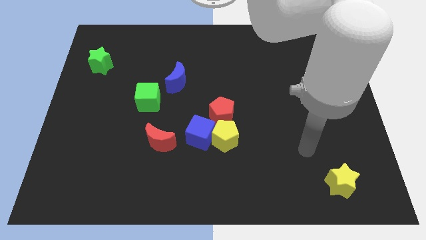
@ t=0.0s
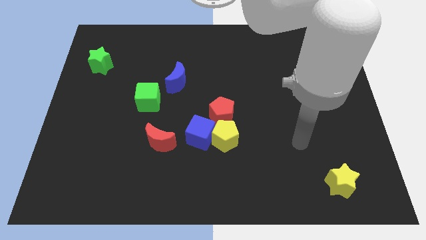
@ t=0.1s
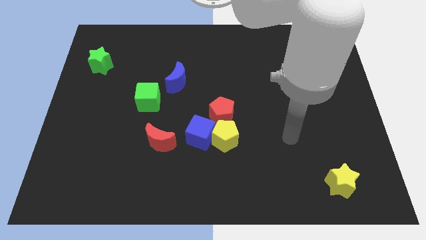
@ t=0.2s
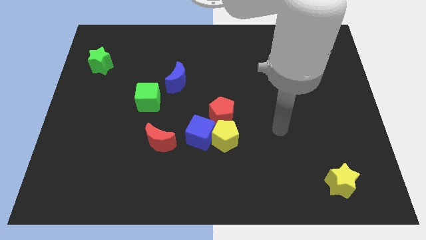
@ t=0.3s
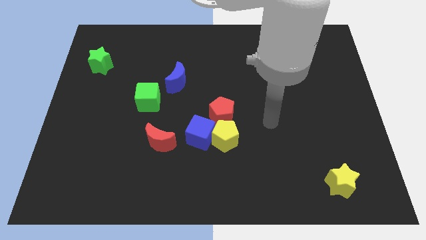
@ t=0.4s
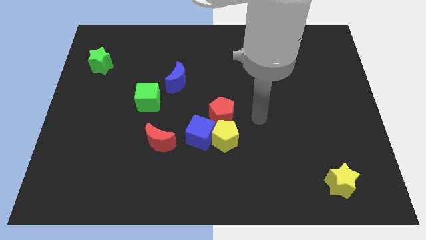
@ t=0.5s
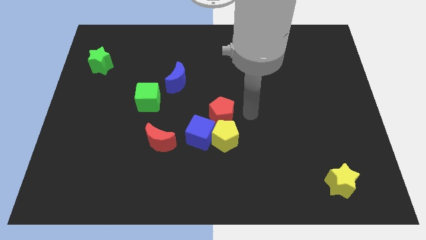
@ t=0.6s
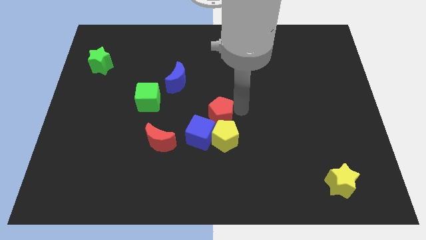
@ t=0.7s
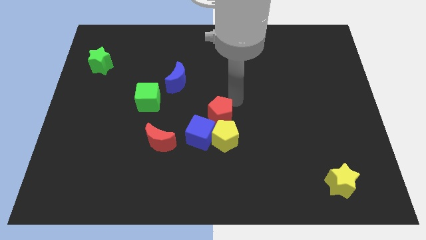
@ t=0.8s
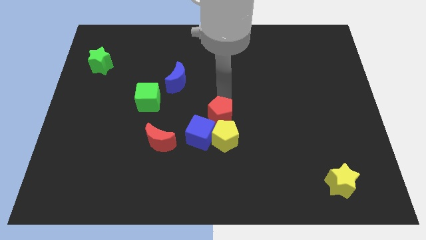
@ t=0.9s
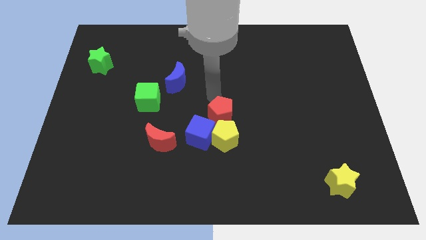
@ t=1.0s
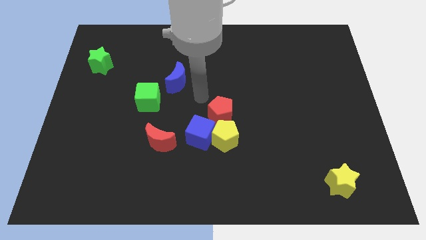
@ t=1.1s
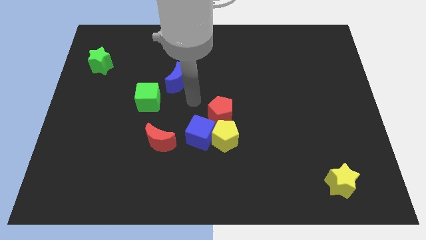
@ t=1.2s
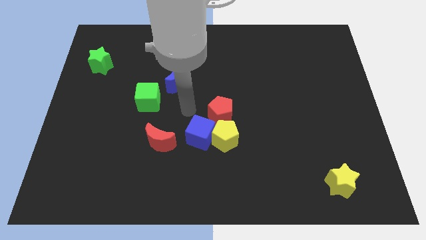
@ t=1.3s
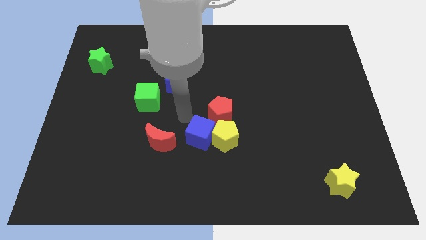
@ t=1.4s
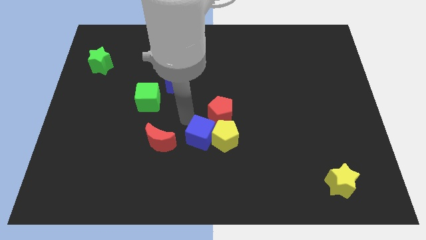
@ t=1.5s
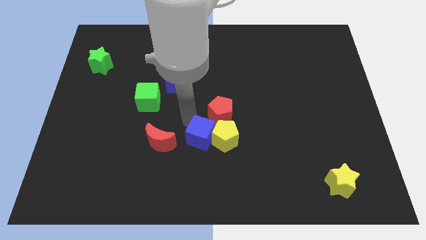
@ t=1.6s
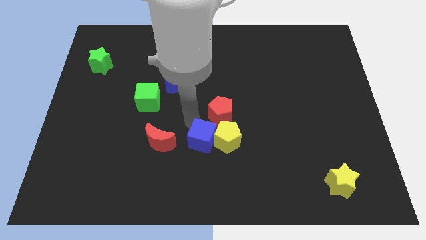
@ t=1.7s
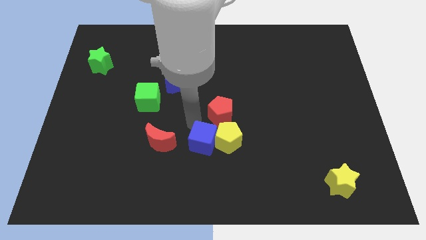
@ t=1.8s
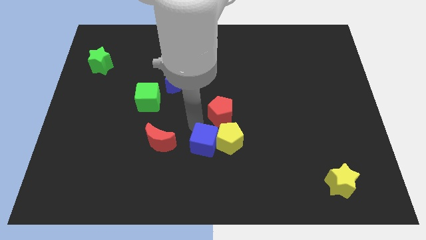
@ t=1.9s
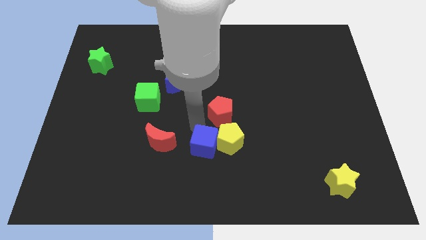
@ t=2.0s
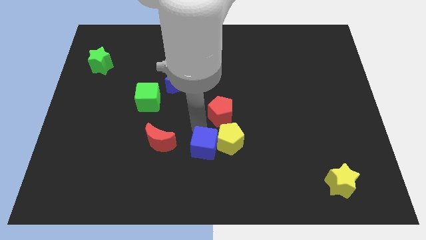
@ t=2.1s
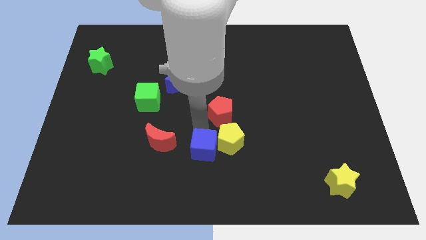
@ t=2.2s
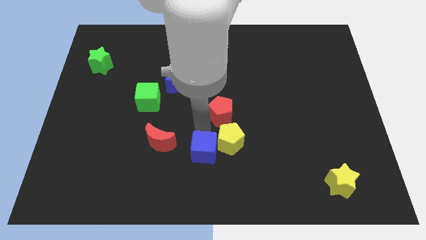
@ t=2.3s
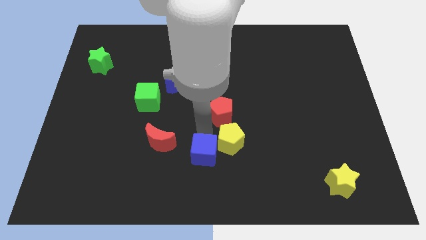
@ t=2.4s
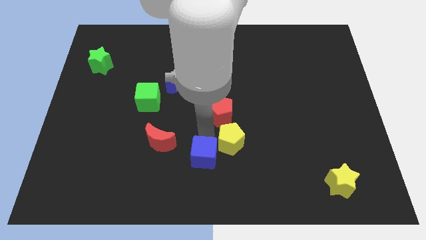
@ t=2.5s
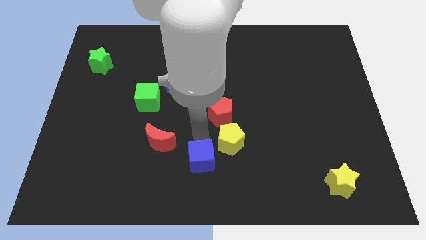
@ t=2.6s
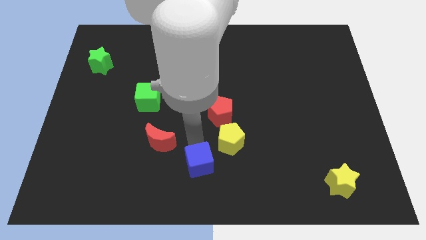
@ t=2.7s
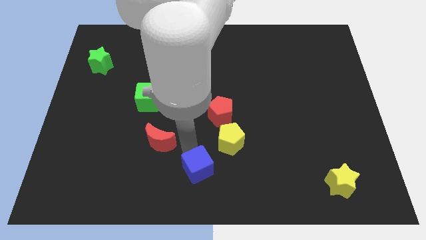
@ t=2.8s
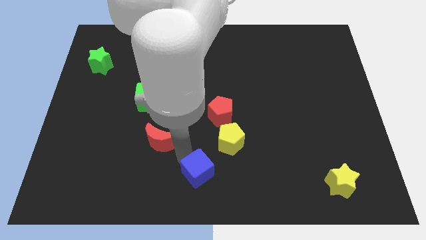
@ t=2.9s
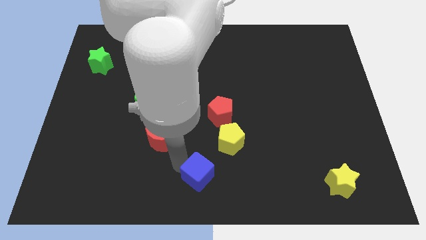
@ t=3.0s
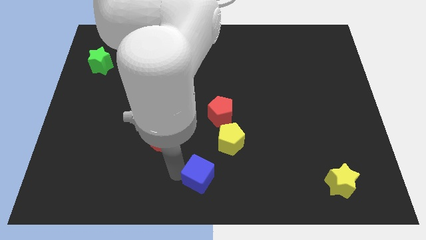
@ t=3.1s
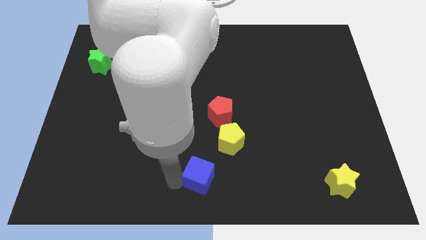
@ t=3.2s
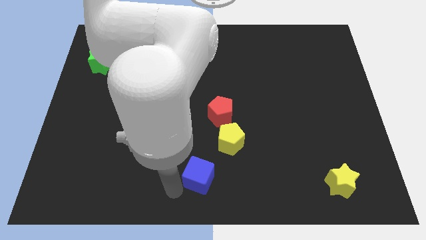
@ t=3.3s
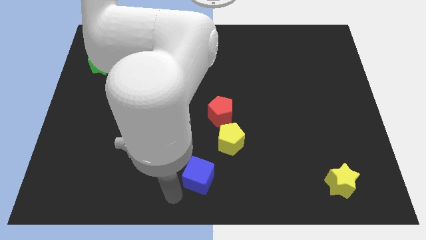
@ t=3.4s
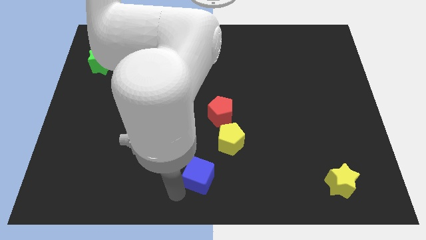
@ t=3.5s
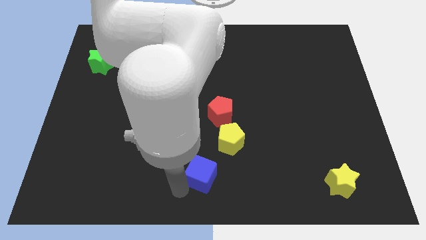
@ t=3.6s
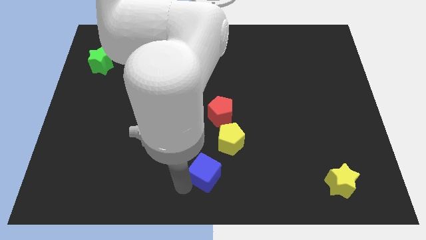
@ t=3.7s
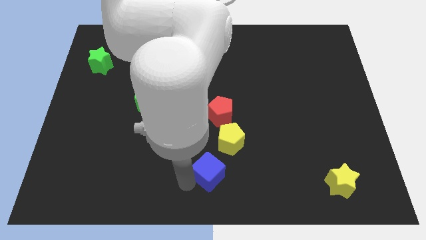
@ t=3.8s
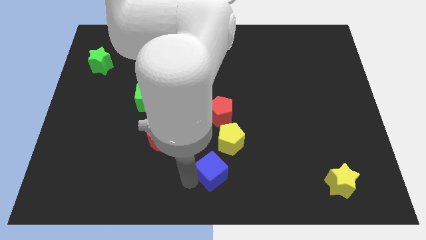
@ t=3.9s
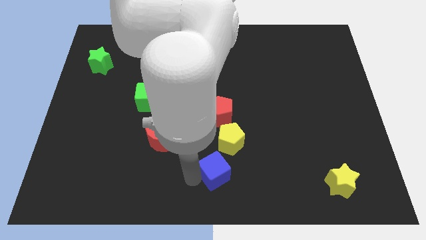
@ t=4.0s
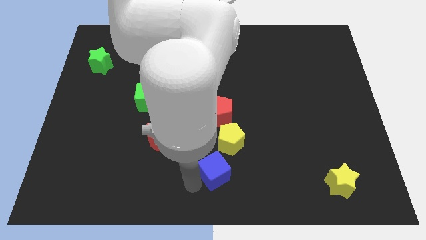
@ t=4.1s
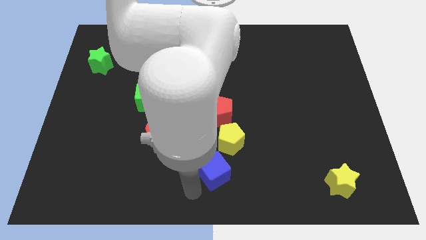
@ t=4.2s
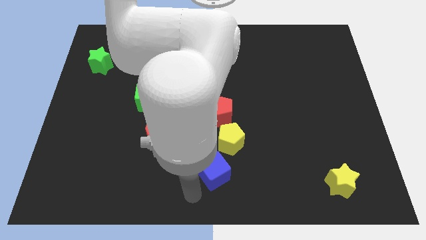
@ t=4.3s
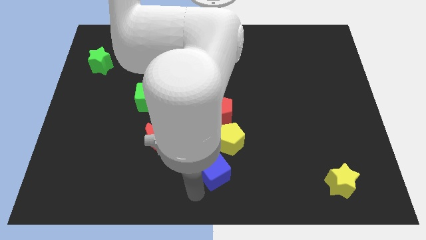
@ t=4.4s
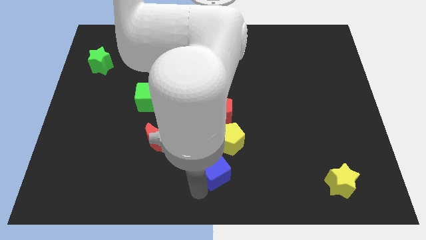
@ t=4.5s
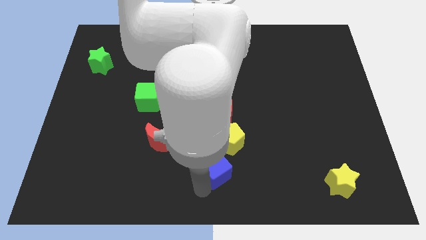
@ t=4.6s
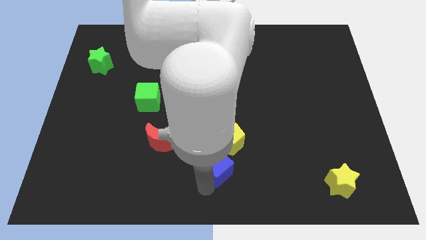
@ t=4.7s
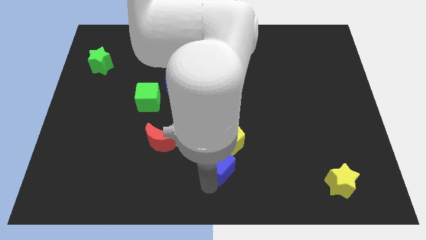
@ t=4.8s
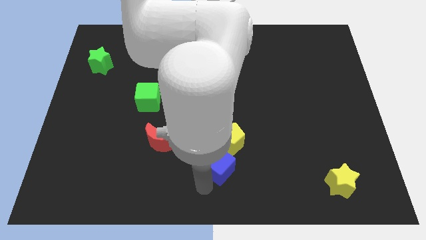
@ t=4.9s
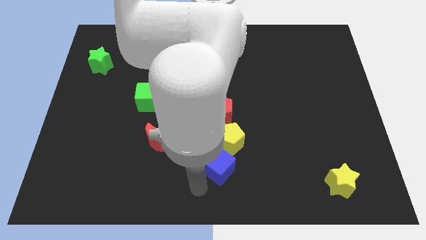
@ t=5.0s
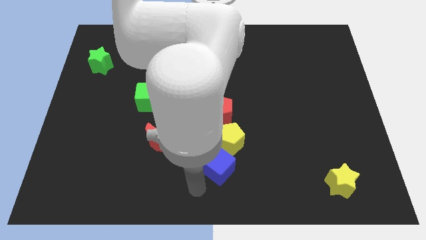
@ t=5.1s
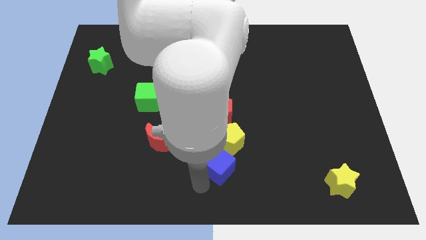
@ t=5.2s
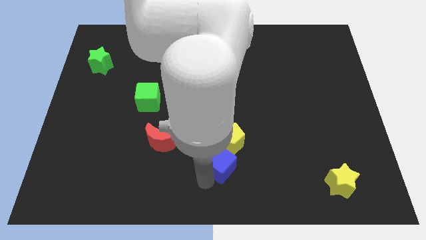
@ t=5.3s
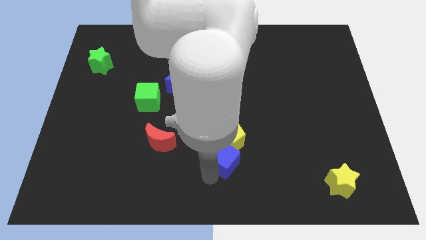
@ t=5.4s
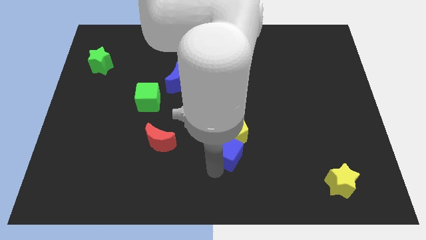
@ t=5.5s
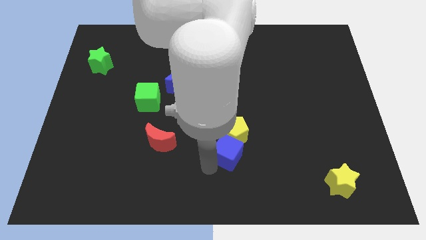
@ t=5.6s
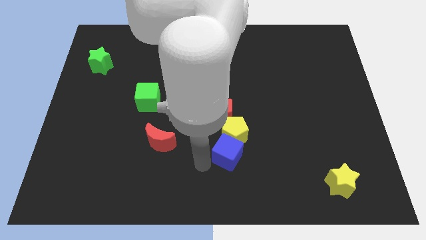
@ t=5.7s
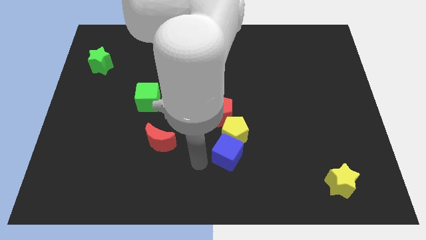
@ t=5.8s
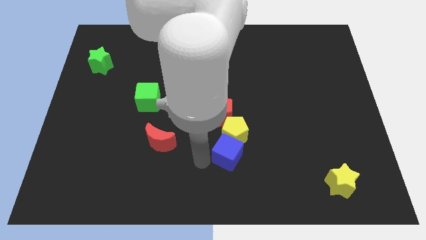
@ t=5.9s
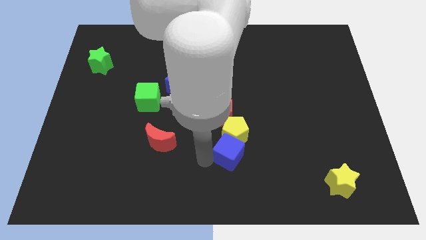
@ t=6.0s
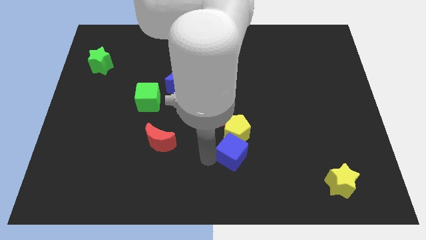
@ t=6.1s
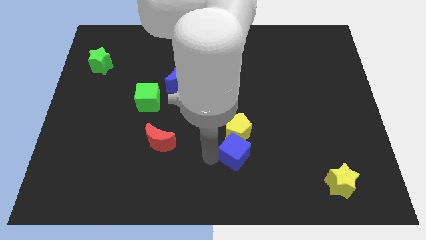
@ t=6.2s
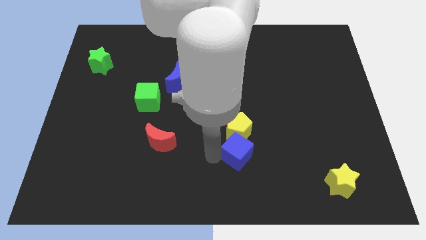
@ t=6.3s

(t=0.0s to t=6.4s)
move the blue cube somewhat right
